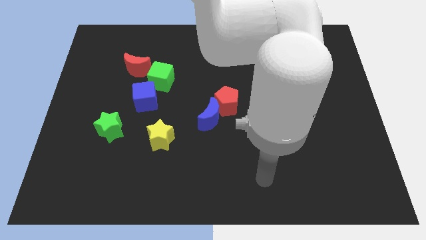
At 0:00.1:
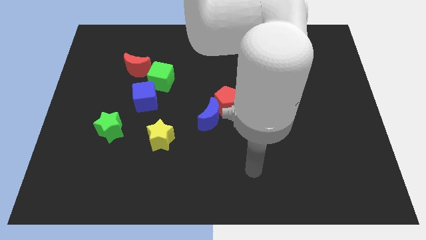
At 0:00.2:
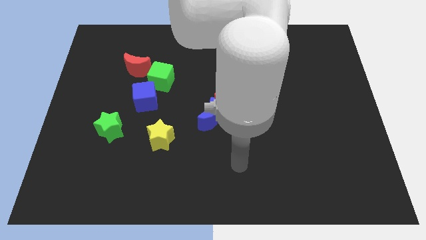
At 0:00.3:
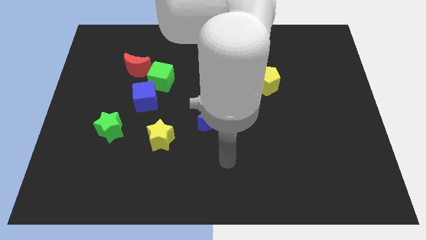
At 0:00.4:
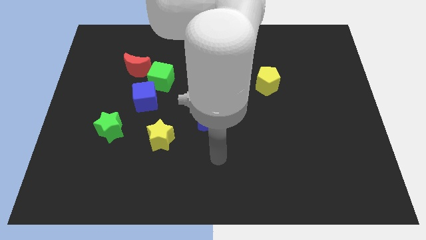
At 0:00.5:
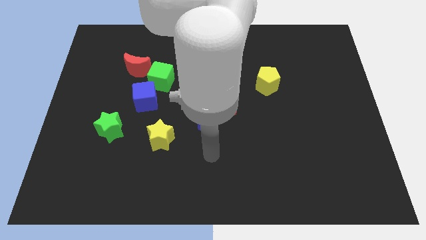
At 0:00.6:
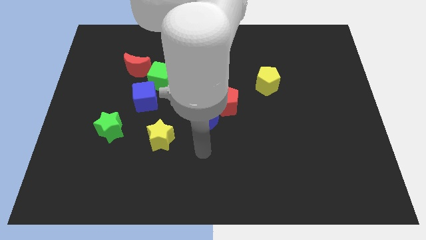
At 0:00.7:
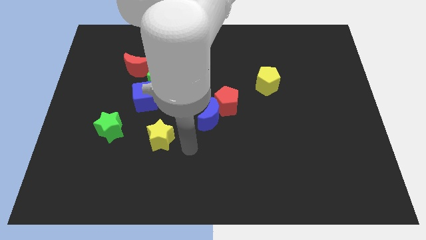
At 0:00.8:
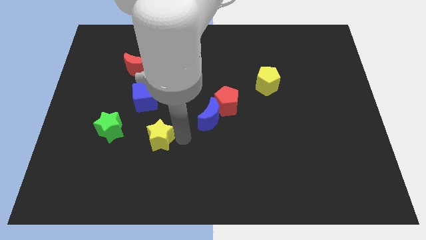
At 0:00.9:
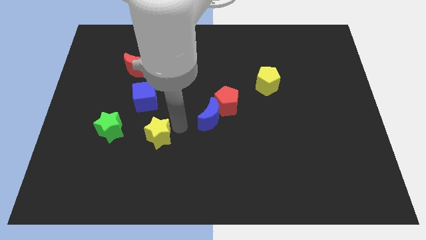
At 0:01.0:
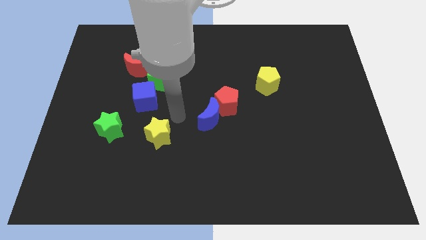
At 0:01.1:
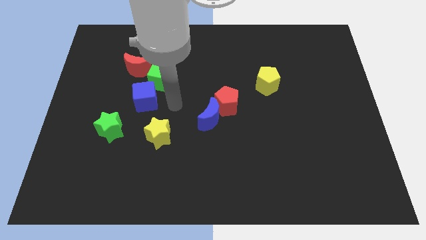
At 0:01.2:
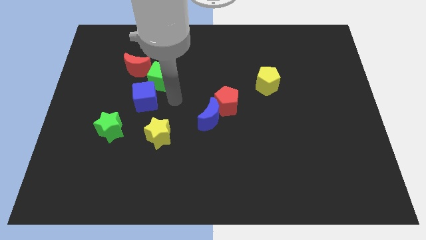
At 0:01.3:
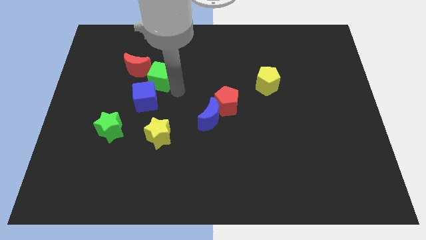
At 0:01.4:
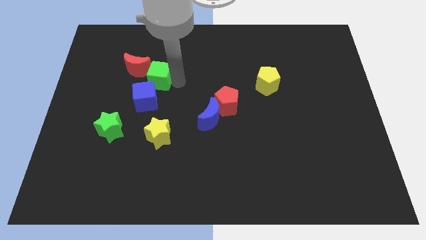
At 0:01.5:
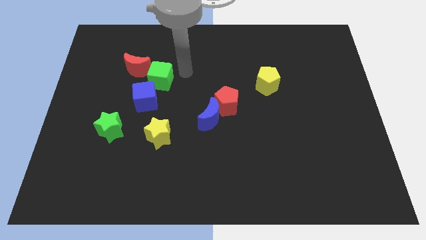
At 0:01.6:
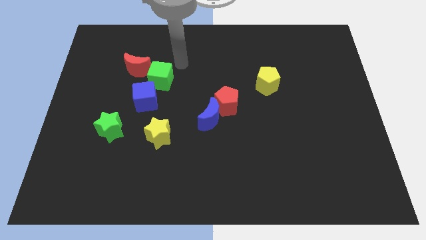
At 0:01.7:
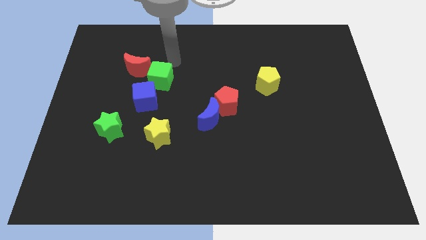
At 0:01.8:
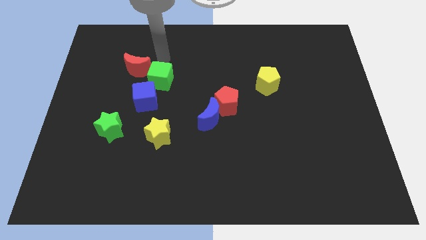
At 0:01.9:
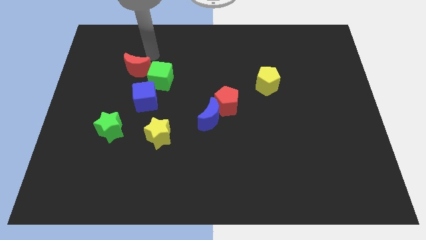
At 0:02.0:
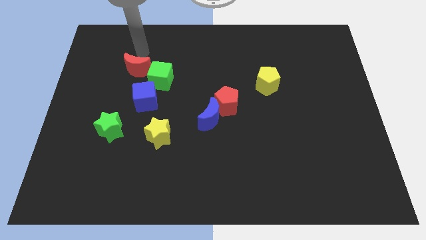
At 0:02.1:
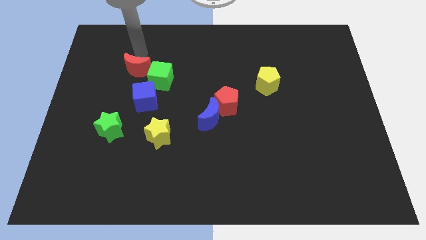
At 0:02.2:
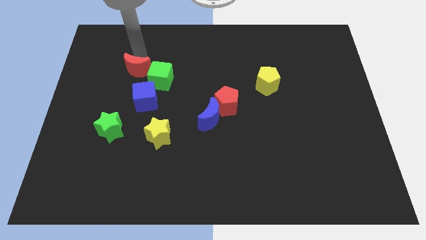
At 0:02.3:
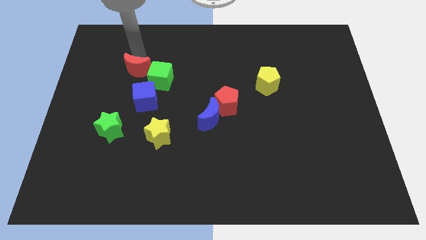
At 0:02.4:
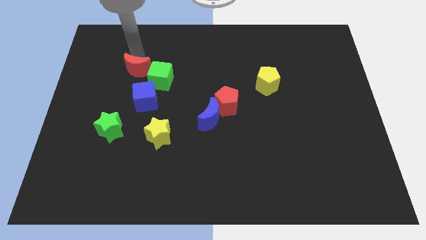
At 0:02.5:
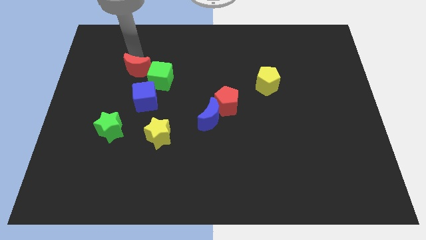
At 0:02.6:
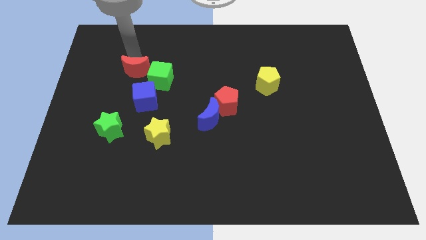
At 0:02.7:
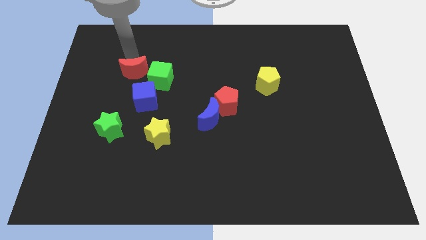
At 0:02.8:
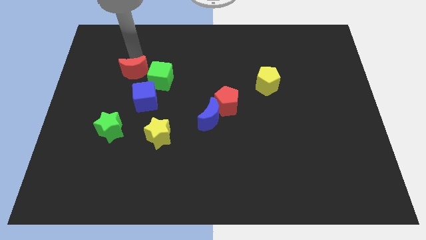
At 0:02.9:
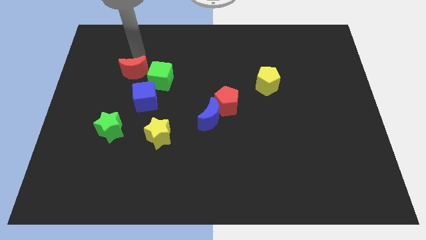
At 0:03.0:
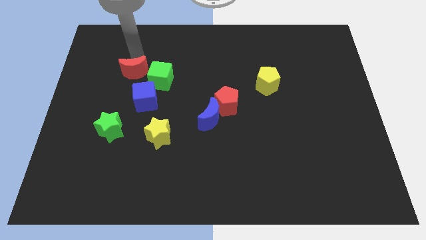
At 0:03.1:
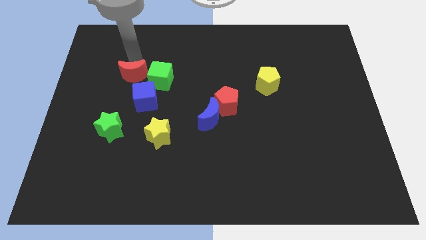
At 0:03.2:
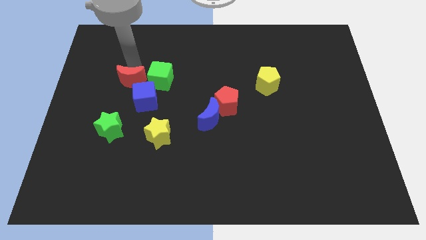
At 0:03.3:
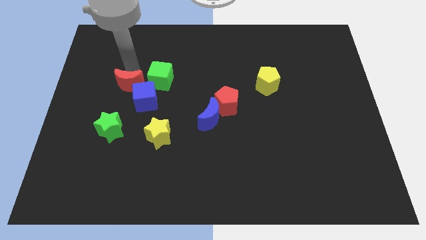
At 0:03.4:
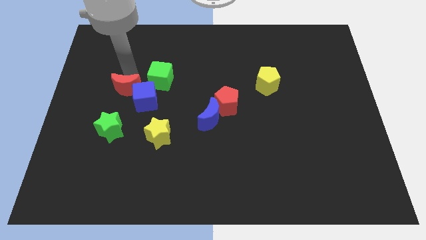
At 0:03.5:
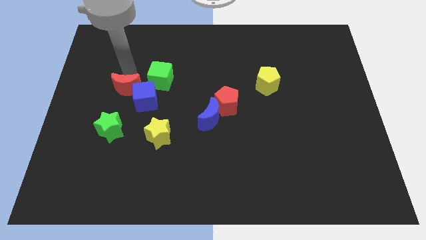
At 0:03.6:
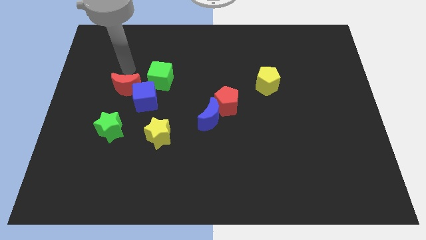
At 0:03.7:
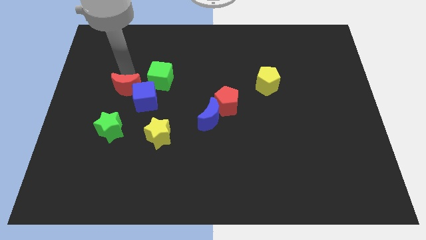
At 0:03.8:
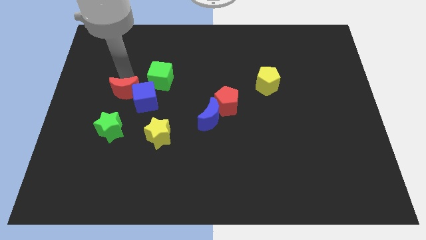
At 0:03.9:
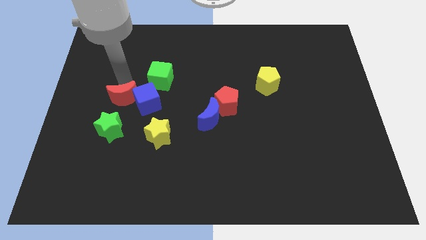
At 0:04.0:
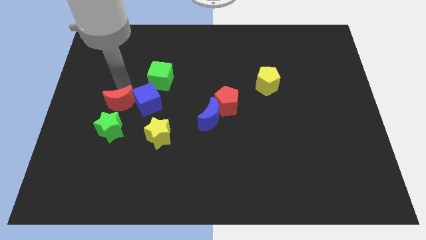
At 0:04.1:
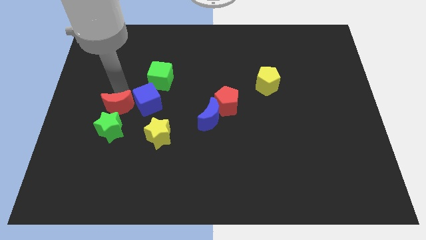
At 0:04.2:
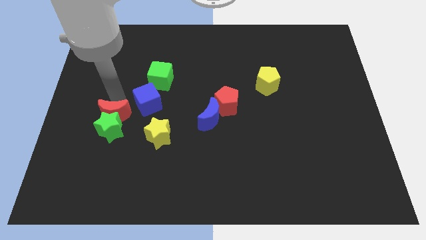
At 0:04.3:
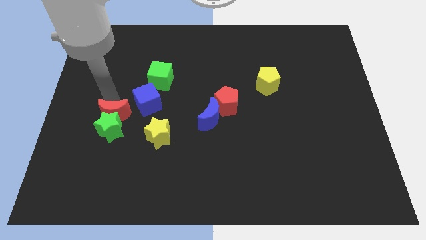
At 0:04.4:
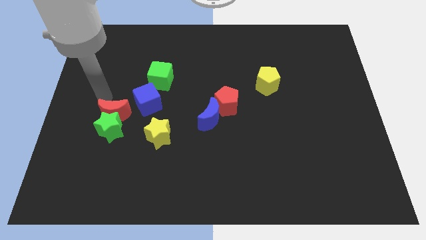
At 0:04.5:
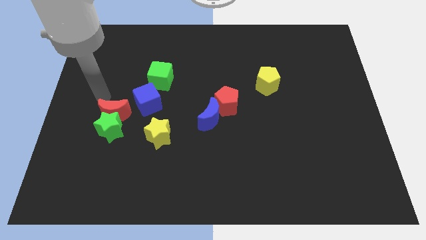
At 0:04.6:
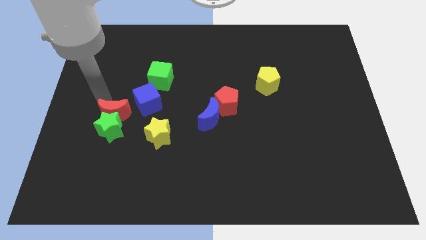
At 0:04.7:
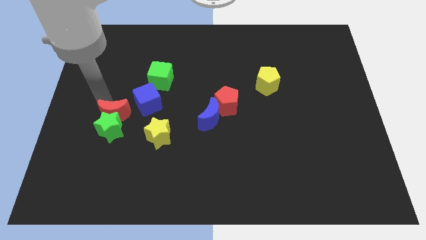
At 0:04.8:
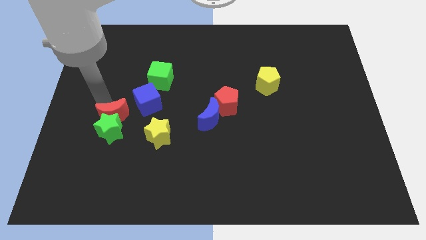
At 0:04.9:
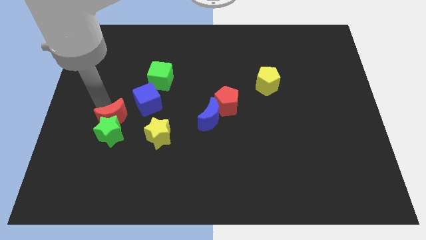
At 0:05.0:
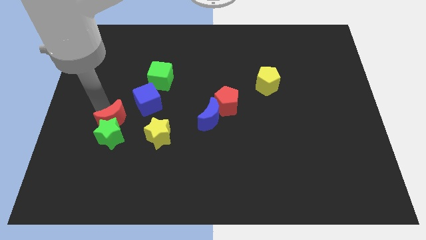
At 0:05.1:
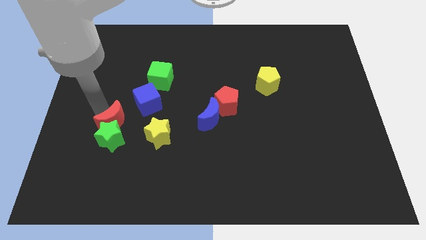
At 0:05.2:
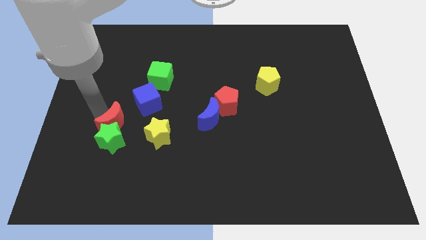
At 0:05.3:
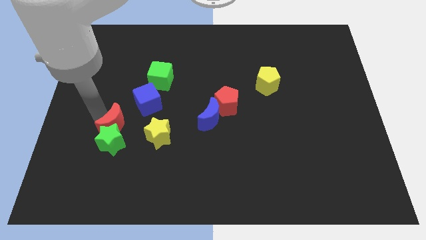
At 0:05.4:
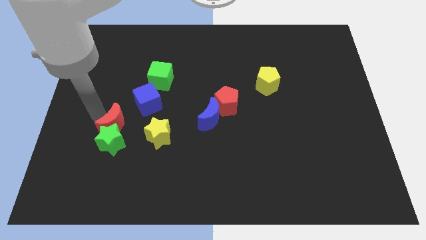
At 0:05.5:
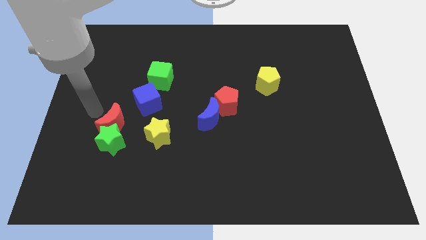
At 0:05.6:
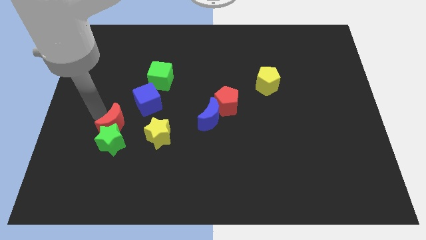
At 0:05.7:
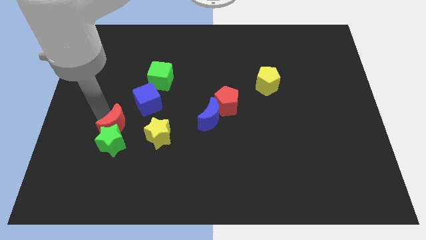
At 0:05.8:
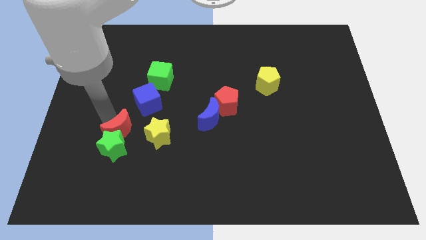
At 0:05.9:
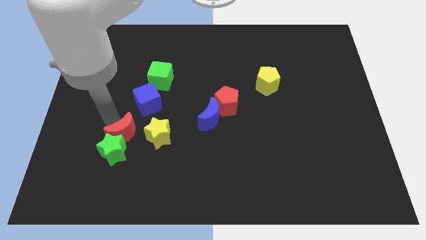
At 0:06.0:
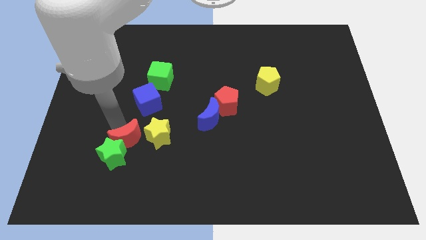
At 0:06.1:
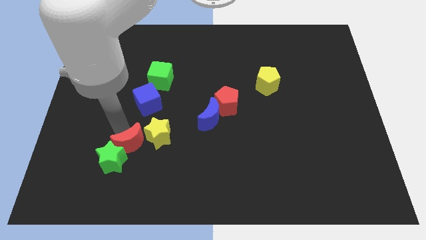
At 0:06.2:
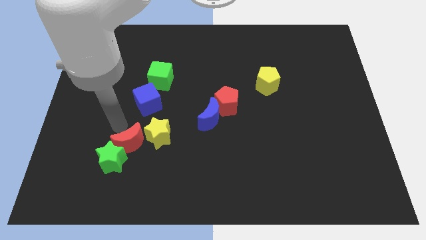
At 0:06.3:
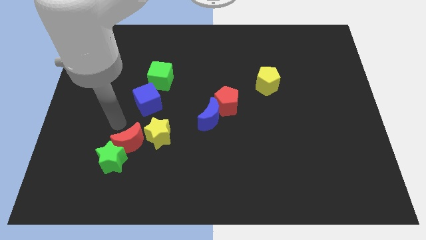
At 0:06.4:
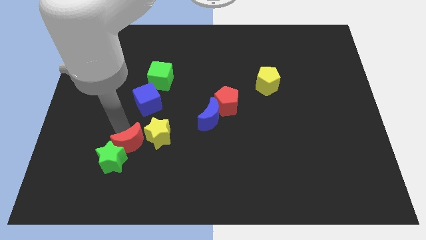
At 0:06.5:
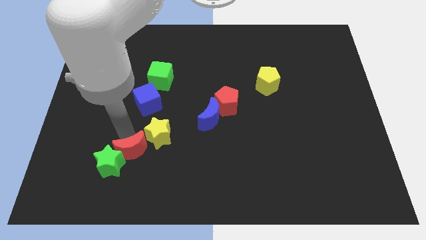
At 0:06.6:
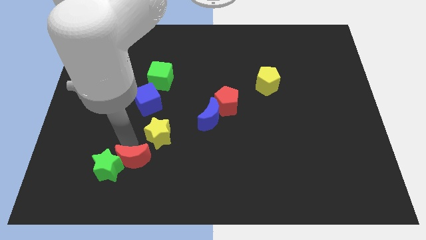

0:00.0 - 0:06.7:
move the red moon to the bottom of the yellow star
